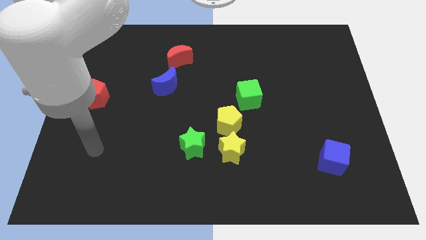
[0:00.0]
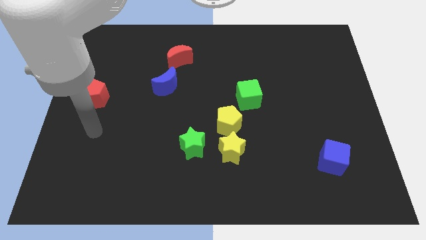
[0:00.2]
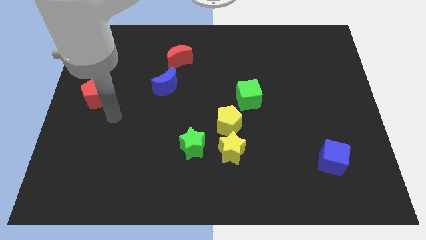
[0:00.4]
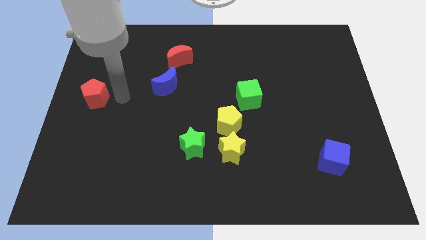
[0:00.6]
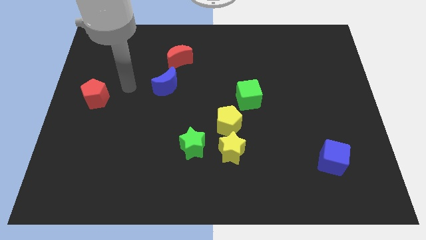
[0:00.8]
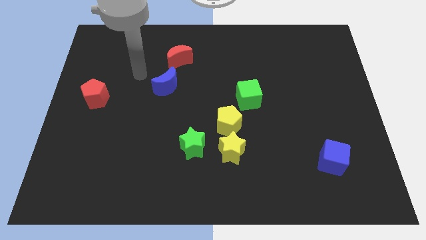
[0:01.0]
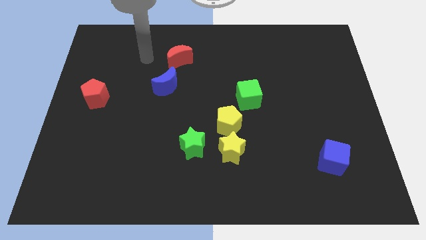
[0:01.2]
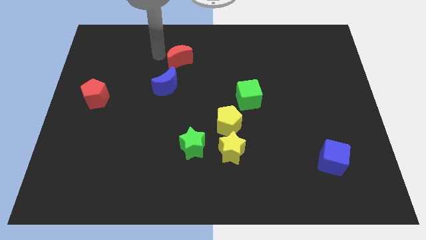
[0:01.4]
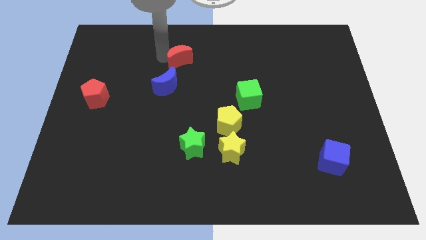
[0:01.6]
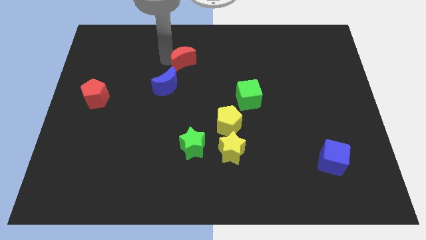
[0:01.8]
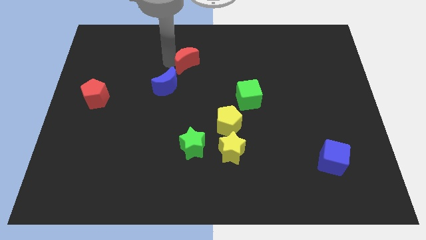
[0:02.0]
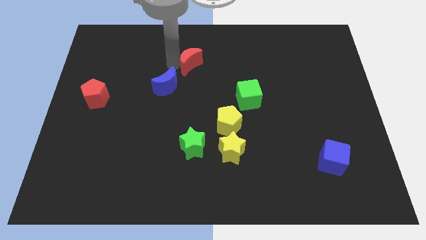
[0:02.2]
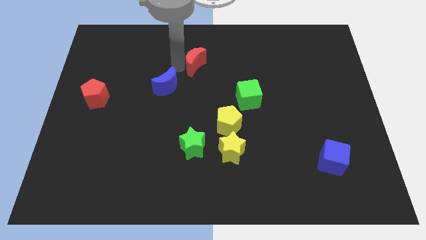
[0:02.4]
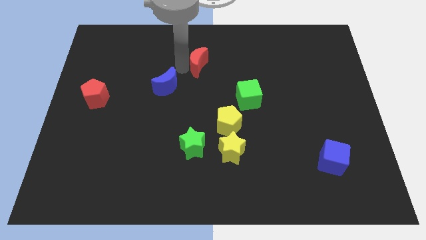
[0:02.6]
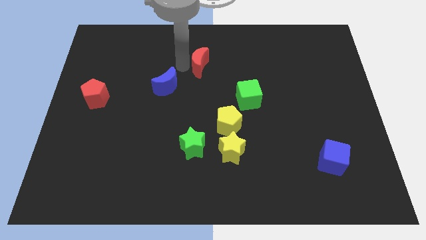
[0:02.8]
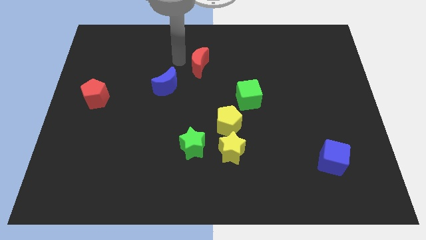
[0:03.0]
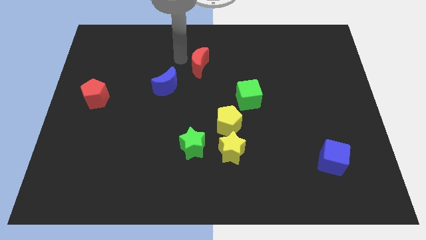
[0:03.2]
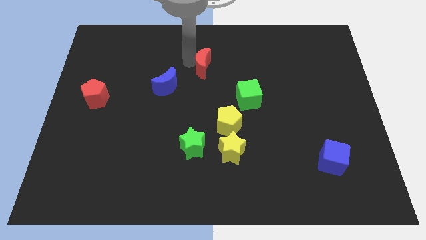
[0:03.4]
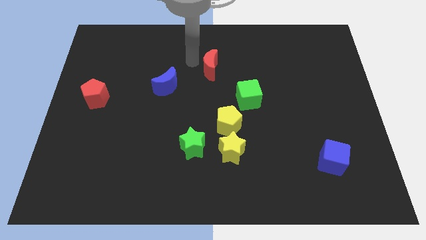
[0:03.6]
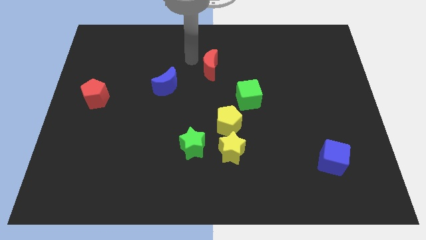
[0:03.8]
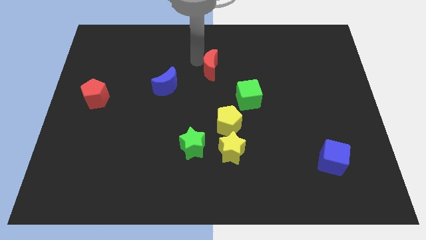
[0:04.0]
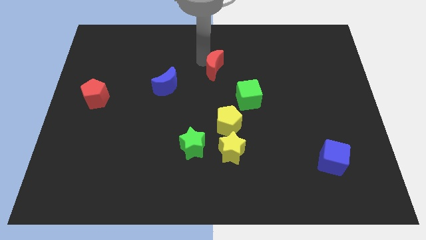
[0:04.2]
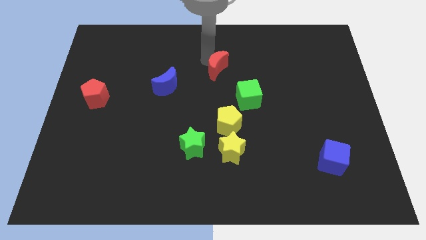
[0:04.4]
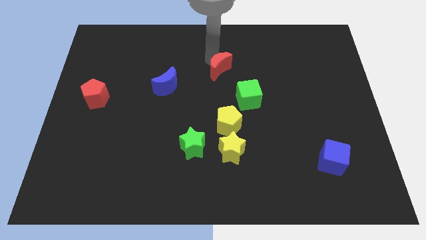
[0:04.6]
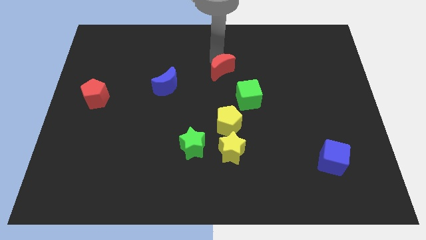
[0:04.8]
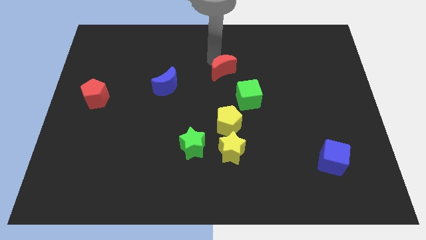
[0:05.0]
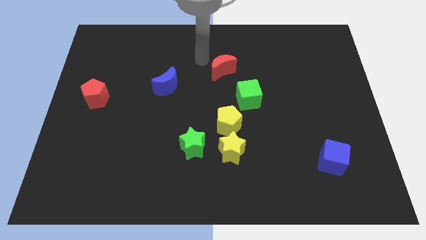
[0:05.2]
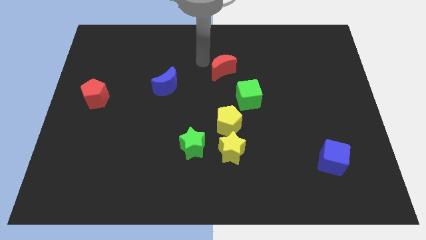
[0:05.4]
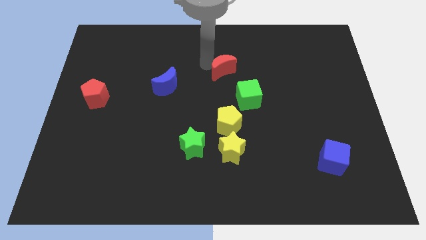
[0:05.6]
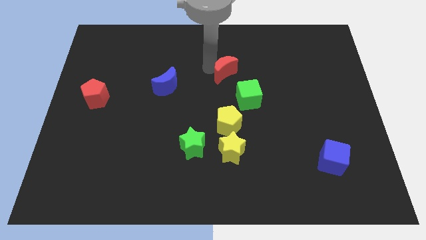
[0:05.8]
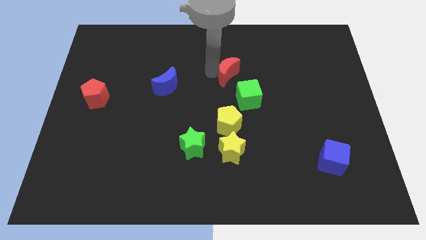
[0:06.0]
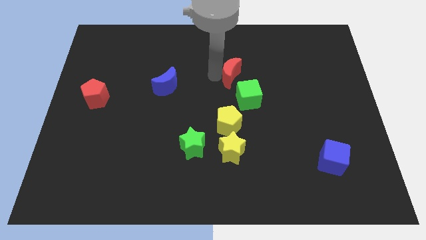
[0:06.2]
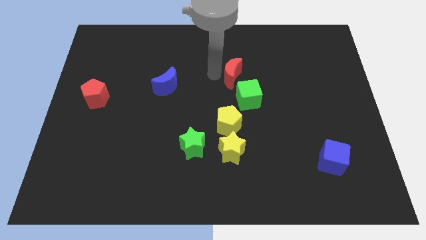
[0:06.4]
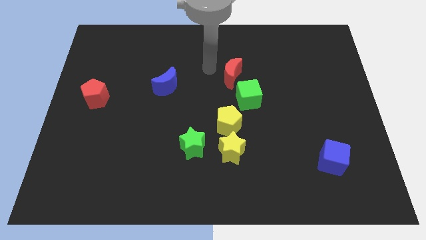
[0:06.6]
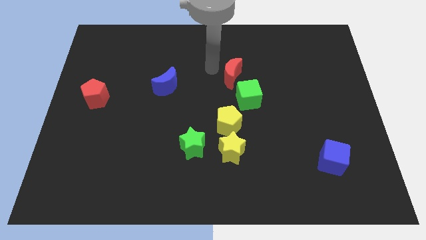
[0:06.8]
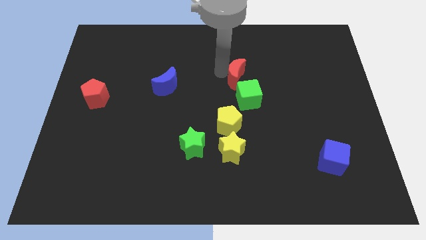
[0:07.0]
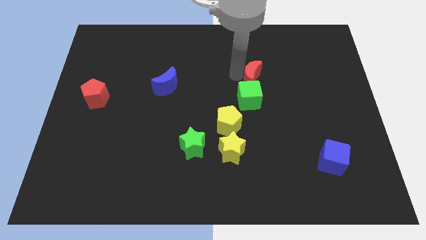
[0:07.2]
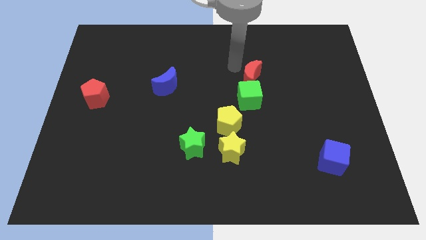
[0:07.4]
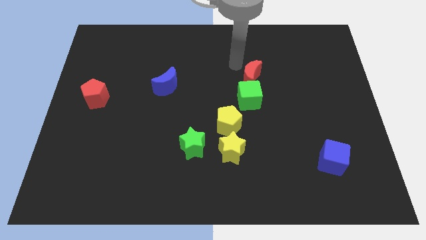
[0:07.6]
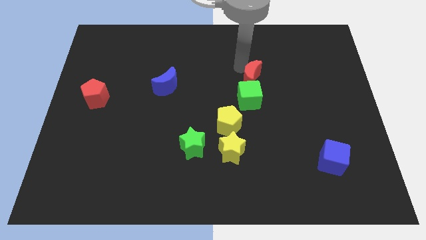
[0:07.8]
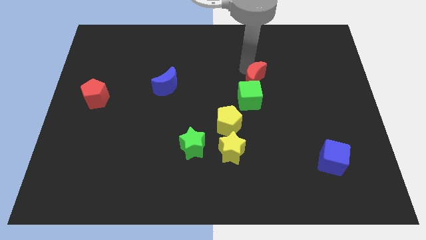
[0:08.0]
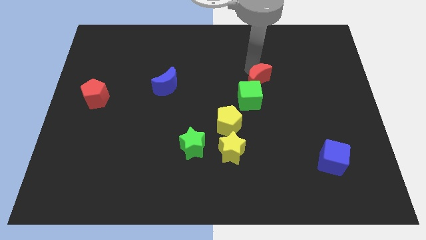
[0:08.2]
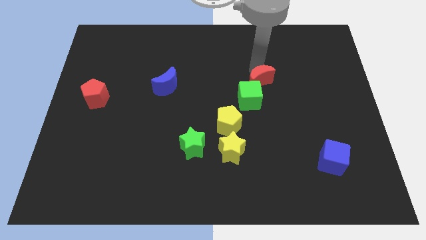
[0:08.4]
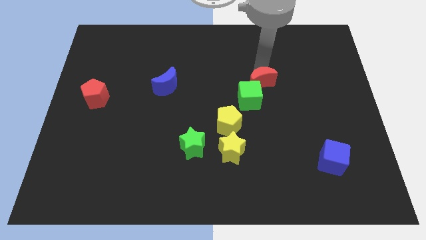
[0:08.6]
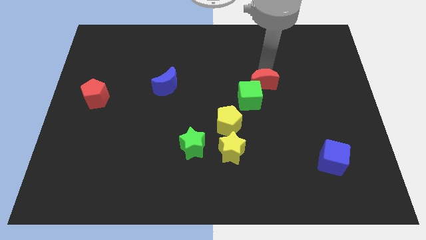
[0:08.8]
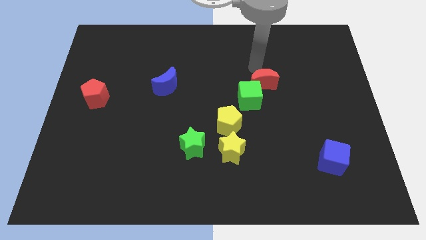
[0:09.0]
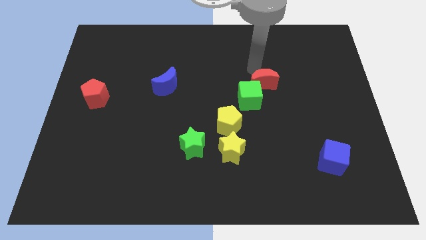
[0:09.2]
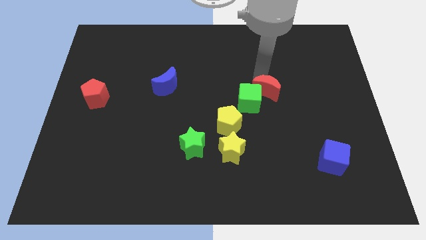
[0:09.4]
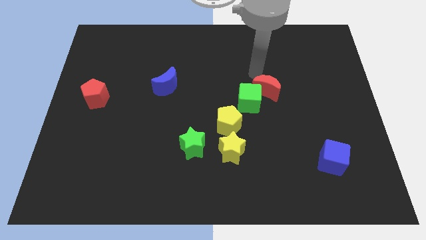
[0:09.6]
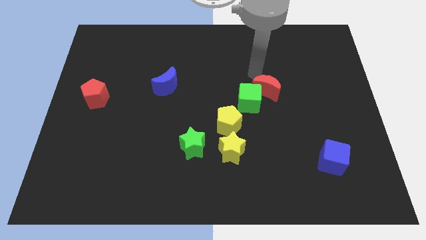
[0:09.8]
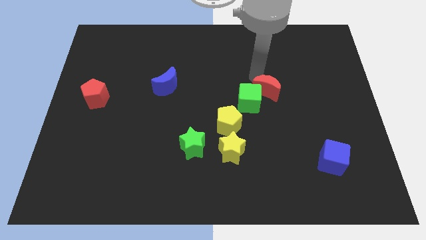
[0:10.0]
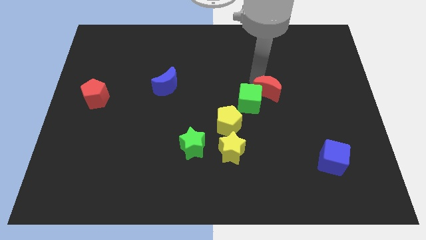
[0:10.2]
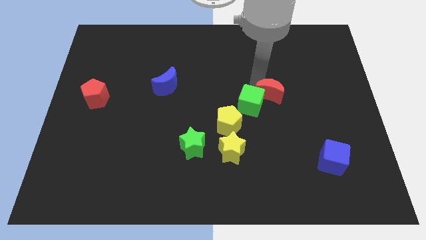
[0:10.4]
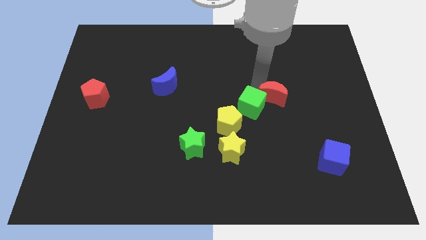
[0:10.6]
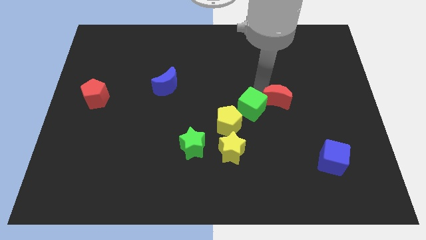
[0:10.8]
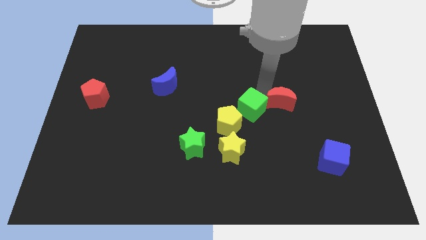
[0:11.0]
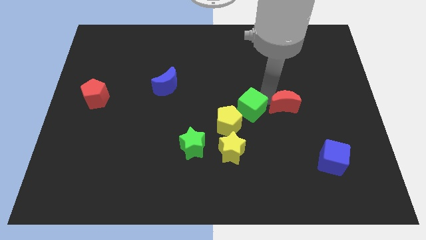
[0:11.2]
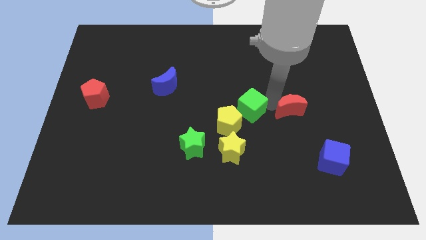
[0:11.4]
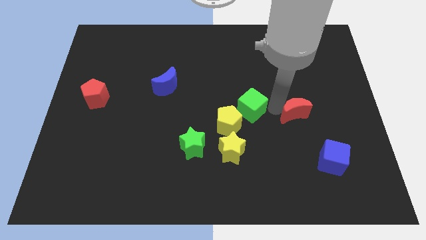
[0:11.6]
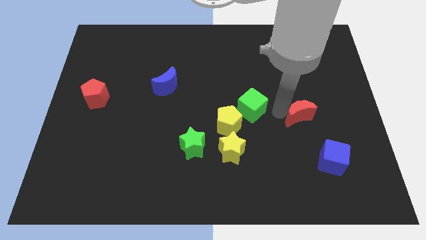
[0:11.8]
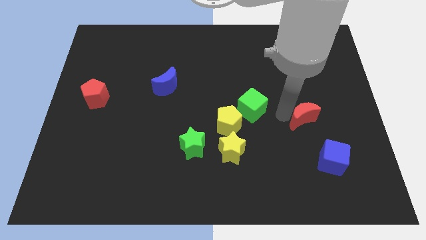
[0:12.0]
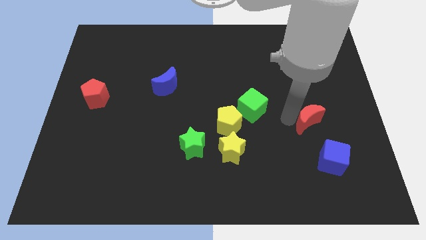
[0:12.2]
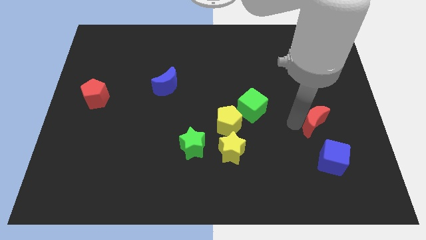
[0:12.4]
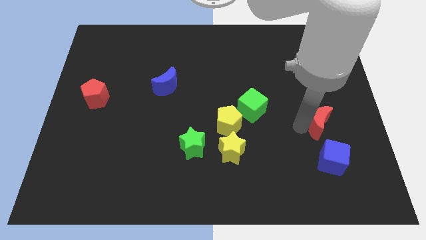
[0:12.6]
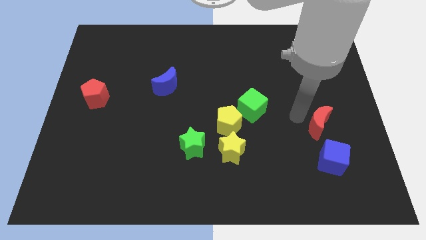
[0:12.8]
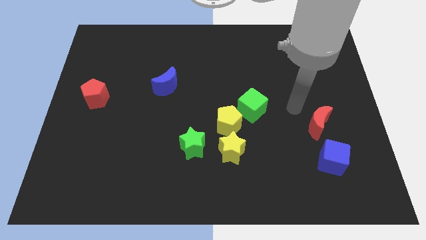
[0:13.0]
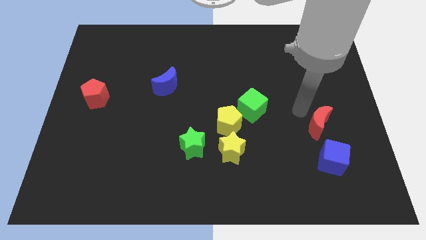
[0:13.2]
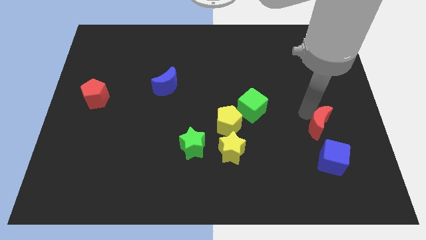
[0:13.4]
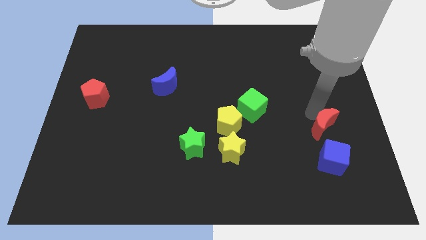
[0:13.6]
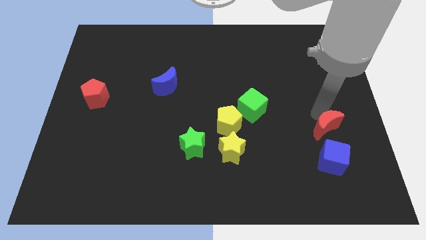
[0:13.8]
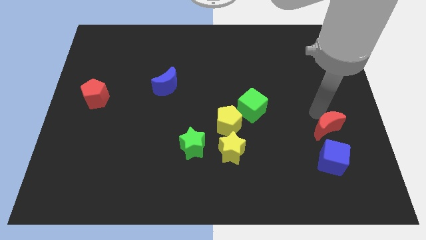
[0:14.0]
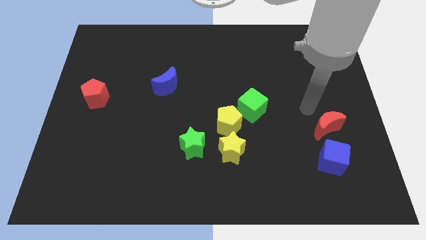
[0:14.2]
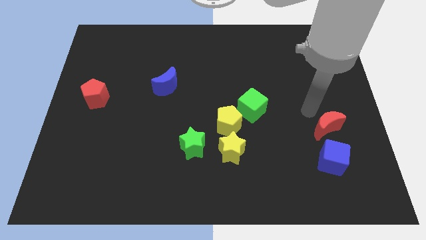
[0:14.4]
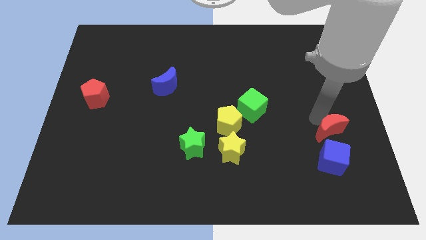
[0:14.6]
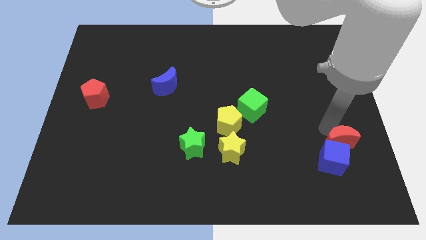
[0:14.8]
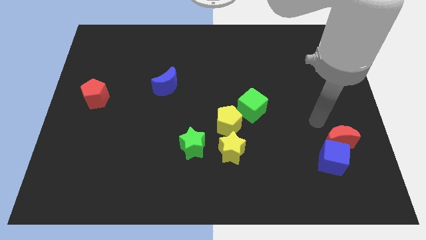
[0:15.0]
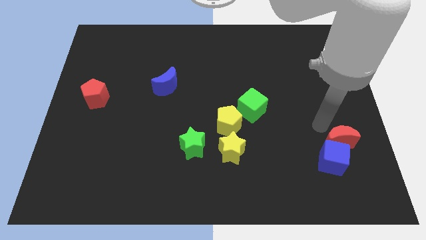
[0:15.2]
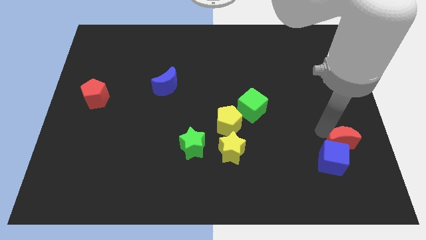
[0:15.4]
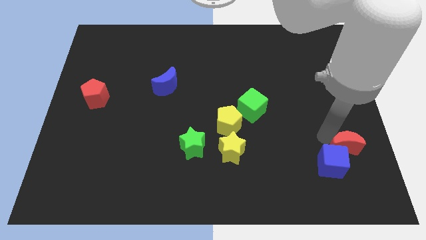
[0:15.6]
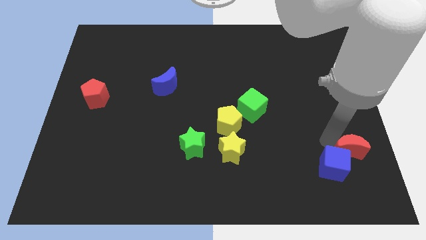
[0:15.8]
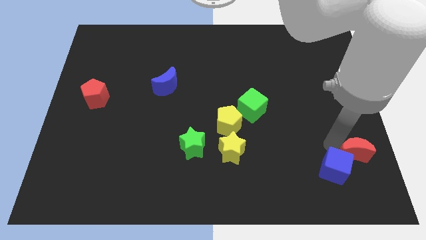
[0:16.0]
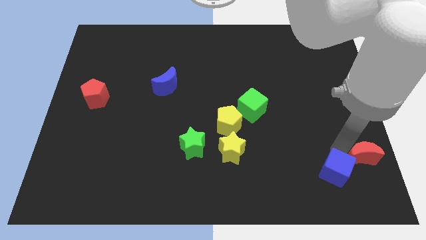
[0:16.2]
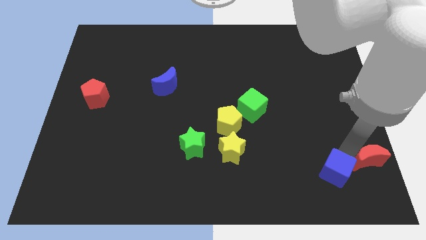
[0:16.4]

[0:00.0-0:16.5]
slide the red moon to the bottom right
